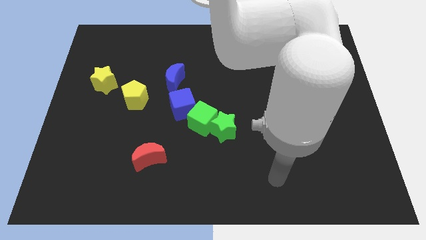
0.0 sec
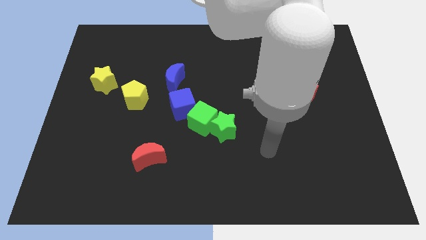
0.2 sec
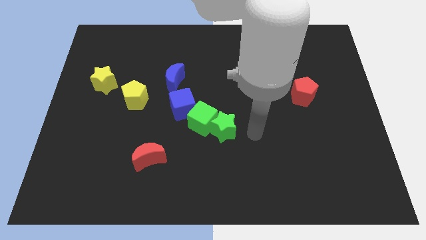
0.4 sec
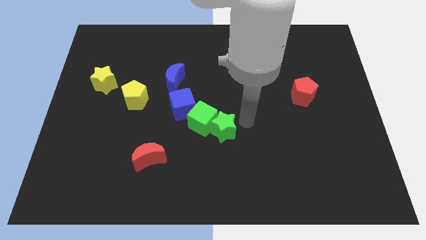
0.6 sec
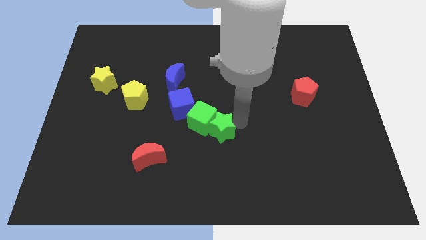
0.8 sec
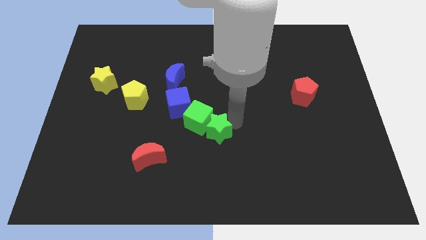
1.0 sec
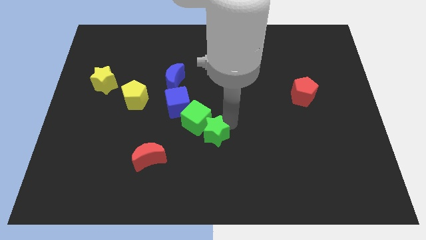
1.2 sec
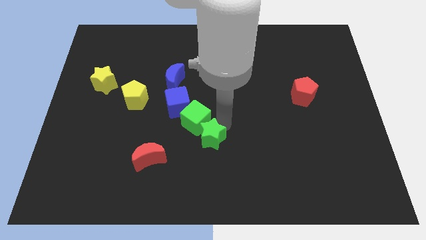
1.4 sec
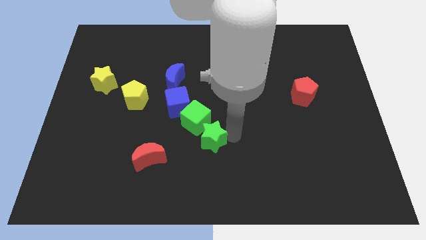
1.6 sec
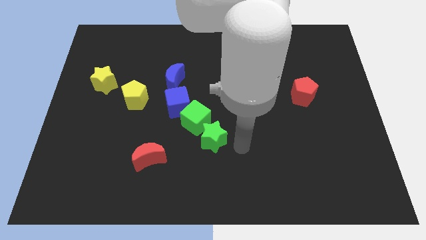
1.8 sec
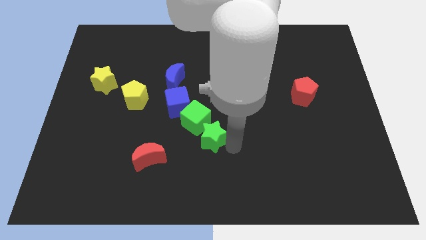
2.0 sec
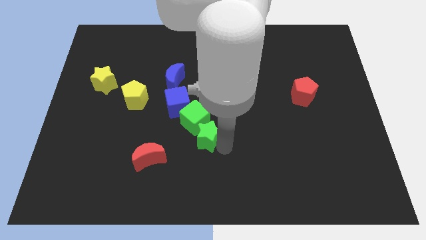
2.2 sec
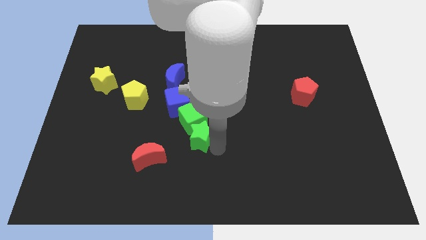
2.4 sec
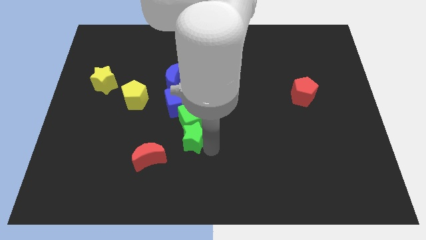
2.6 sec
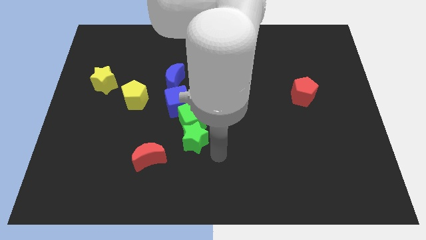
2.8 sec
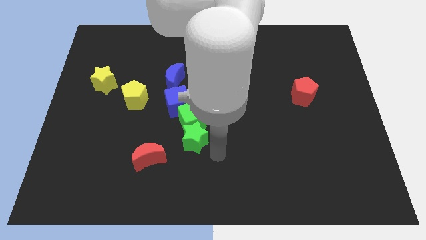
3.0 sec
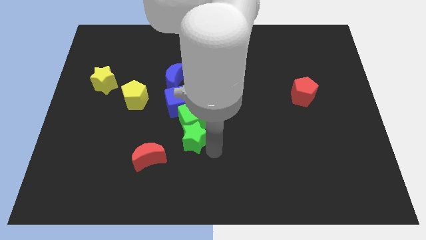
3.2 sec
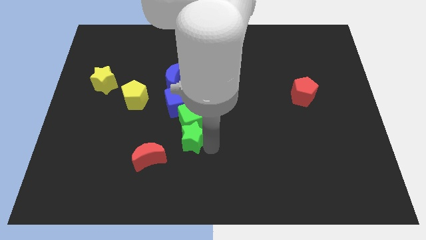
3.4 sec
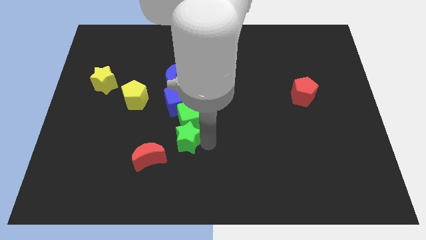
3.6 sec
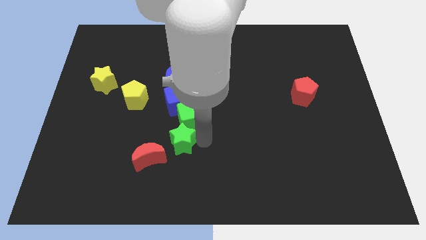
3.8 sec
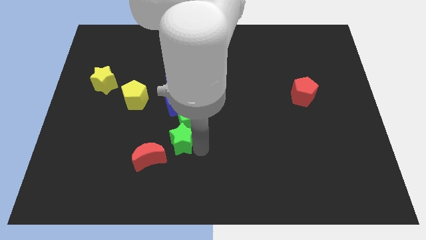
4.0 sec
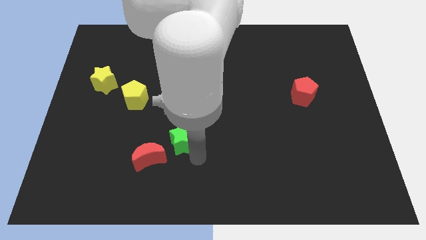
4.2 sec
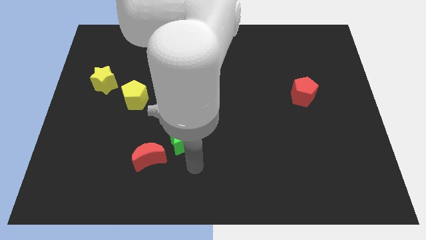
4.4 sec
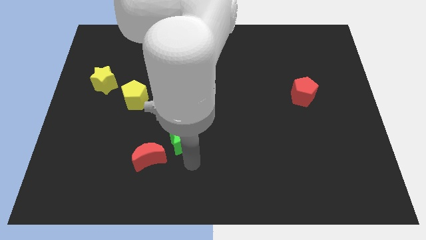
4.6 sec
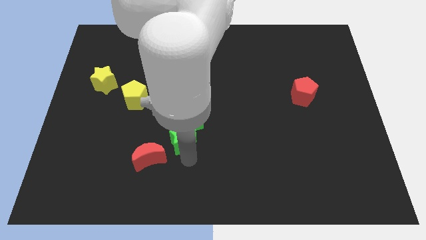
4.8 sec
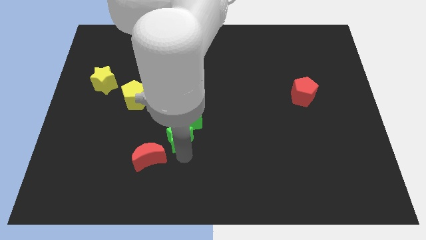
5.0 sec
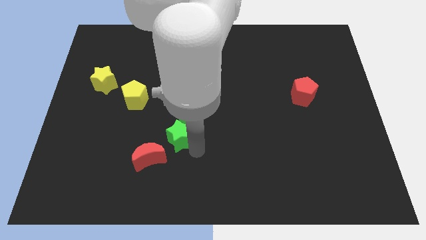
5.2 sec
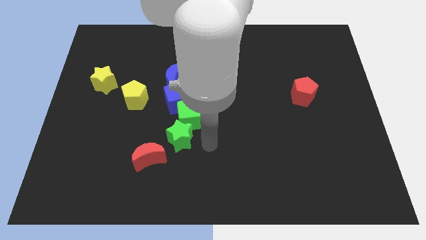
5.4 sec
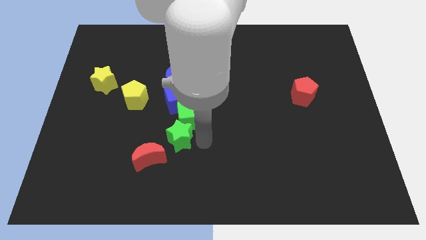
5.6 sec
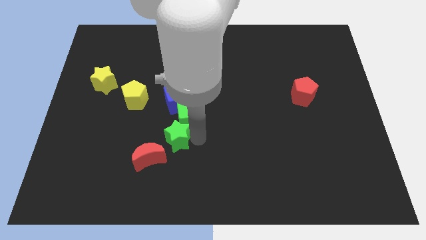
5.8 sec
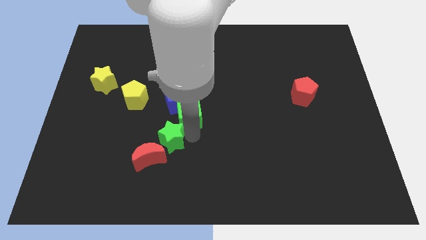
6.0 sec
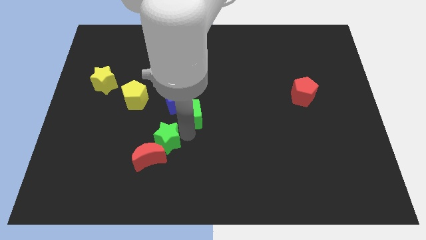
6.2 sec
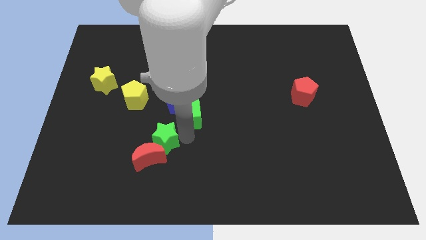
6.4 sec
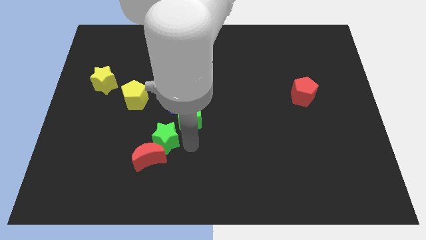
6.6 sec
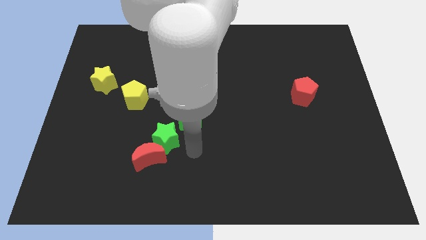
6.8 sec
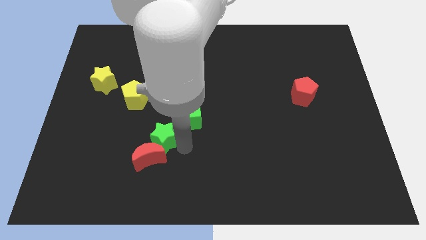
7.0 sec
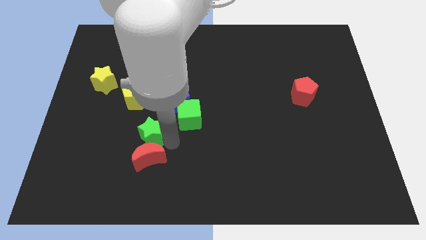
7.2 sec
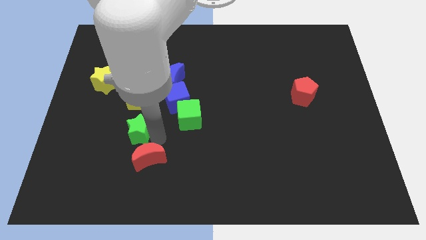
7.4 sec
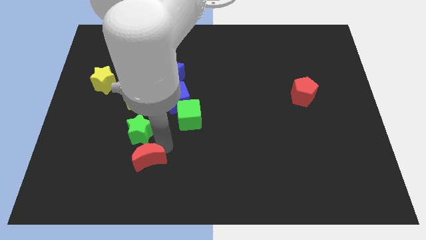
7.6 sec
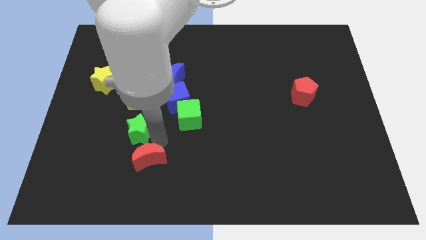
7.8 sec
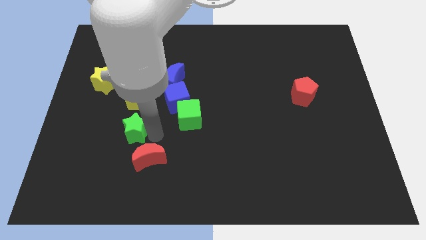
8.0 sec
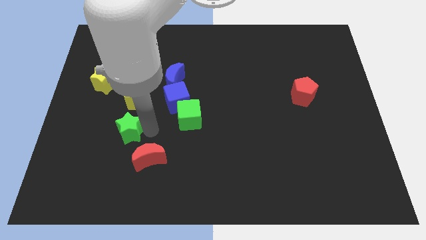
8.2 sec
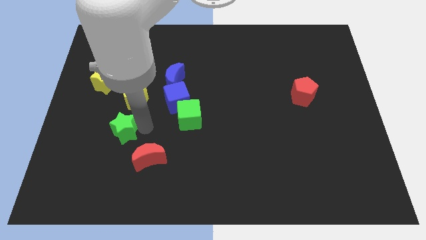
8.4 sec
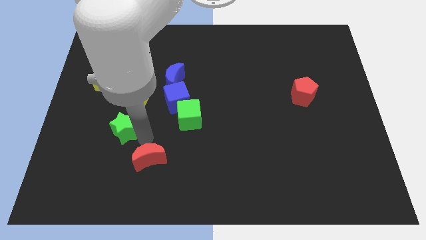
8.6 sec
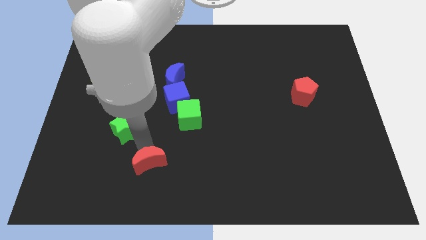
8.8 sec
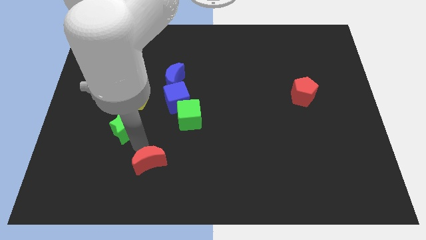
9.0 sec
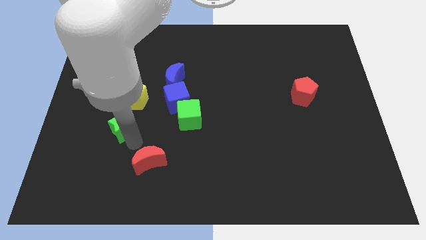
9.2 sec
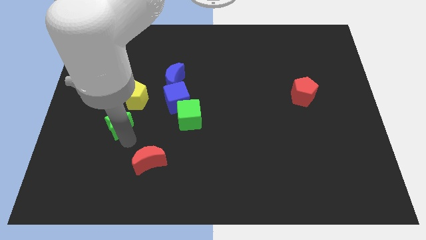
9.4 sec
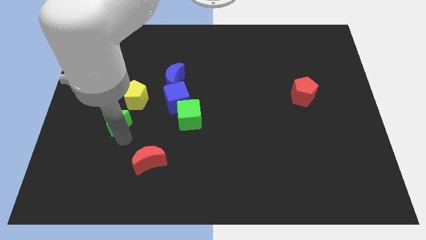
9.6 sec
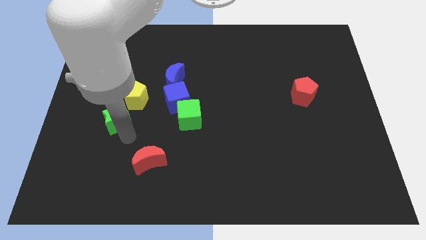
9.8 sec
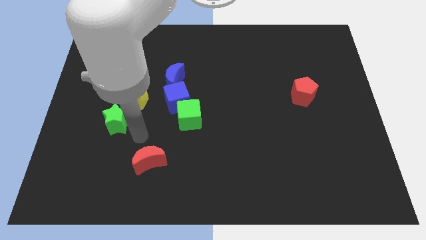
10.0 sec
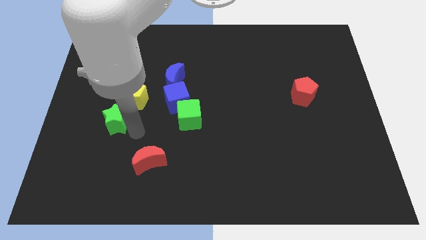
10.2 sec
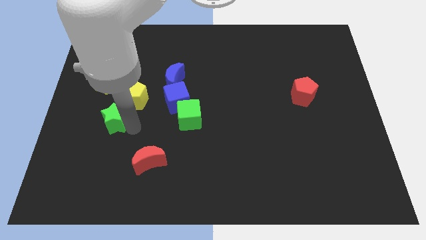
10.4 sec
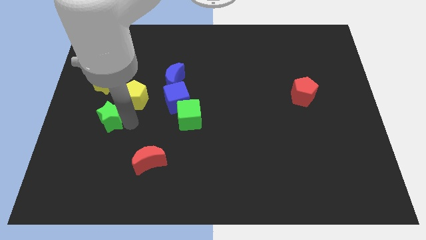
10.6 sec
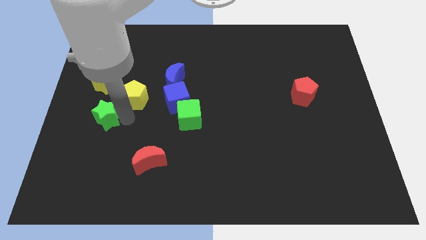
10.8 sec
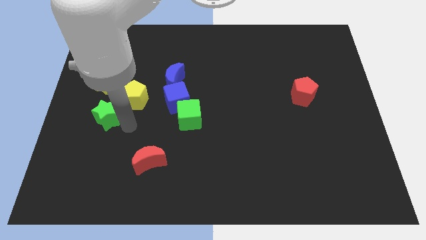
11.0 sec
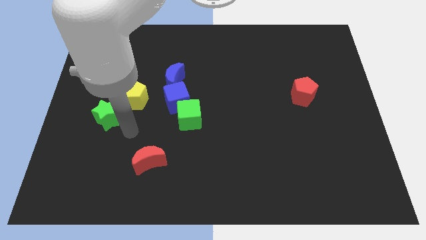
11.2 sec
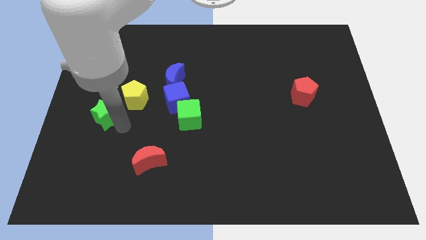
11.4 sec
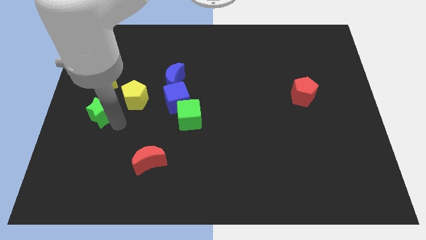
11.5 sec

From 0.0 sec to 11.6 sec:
push the green star to the left side
